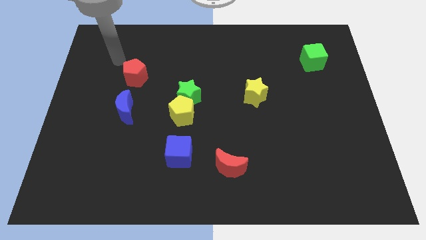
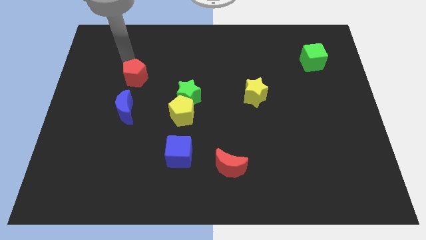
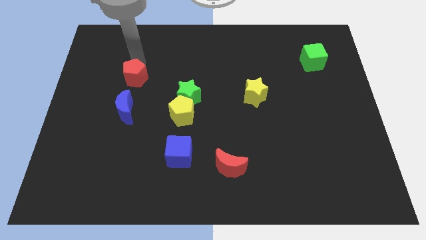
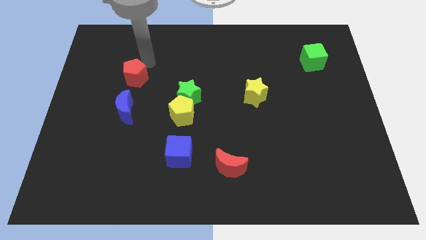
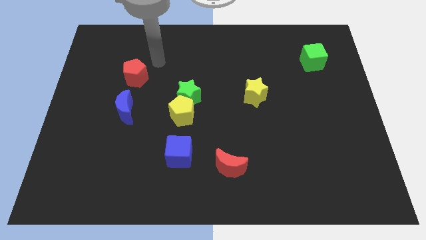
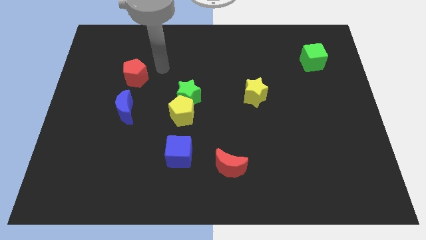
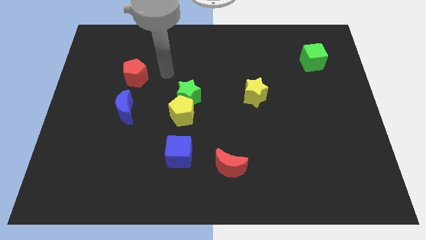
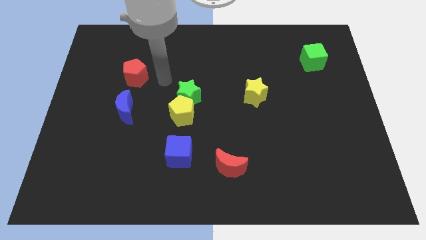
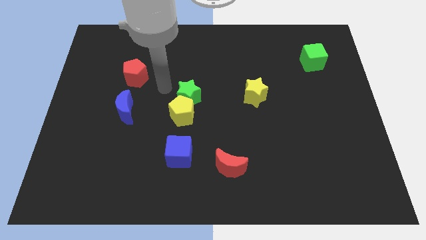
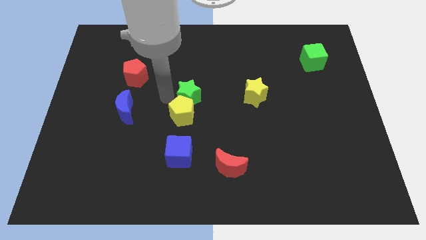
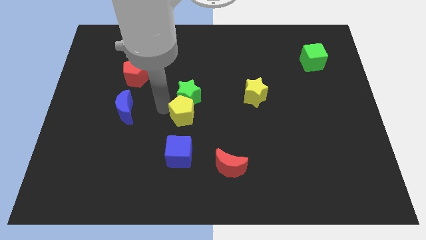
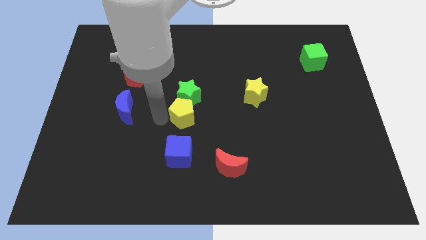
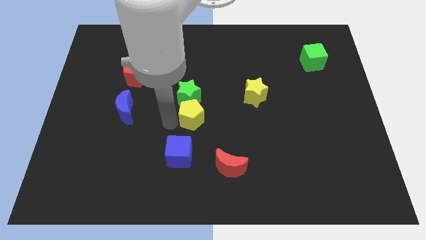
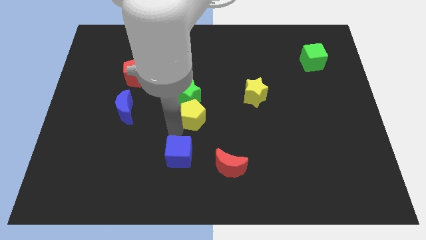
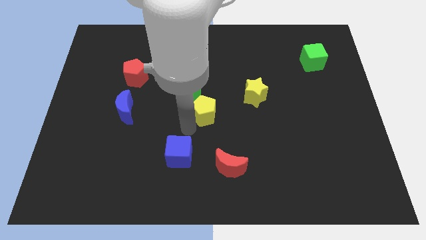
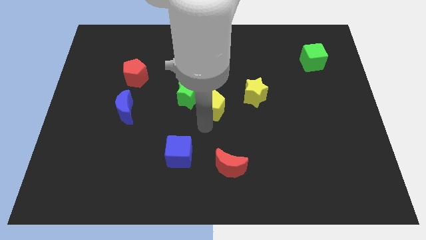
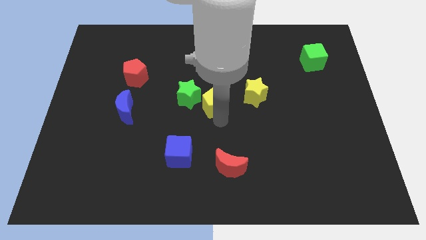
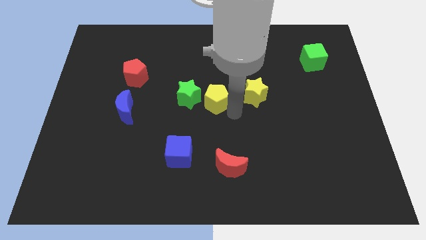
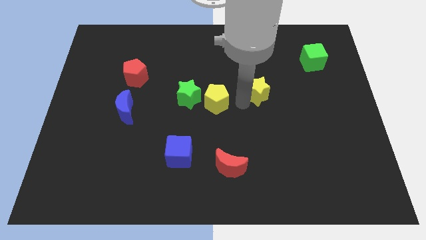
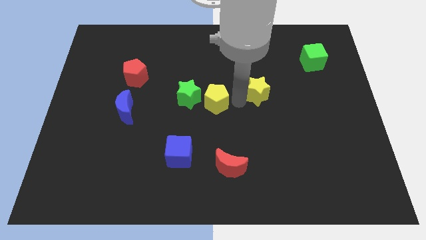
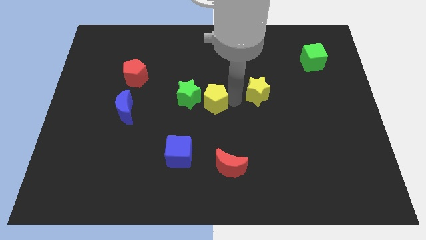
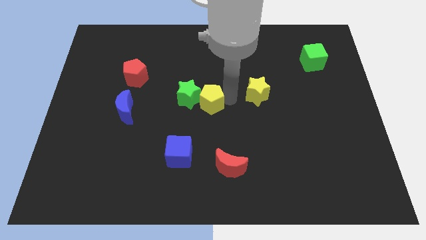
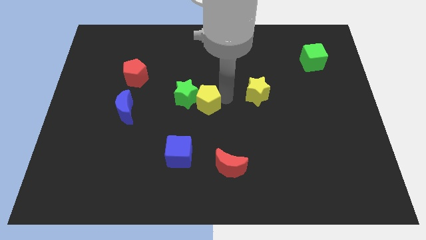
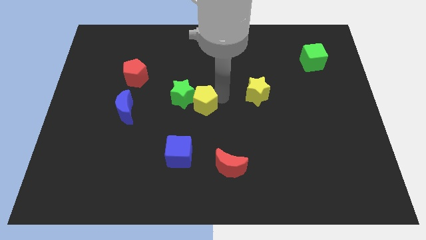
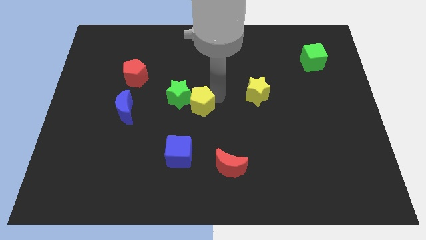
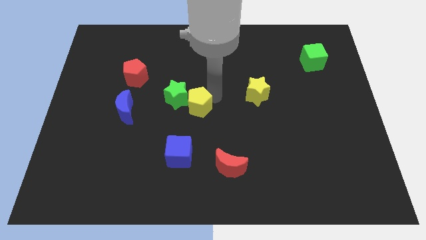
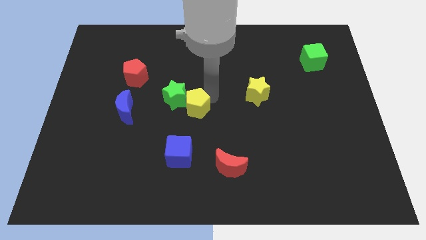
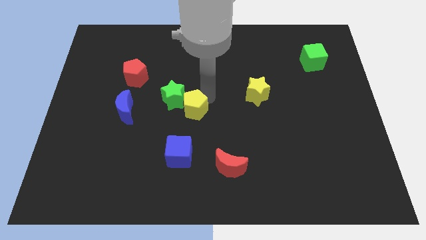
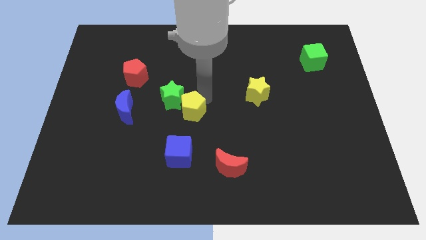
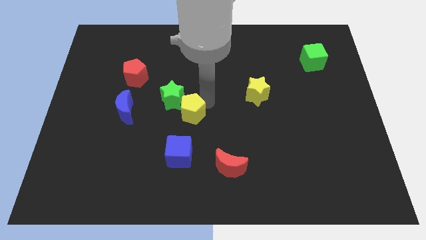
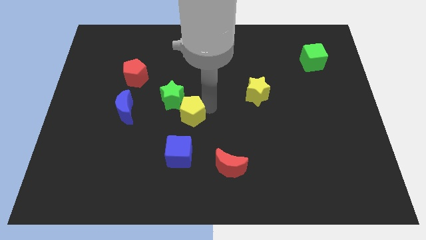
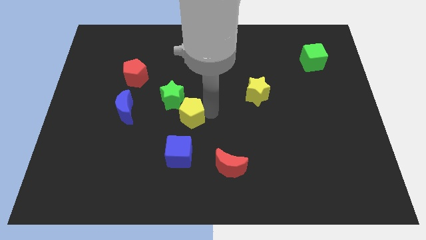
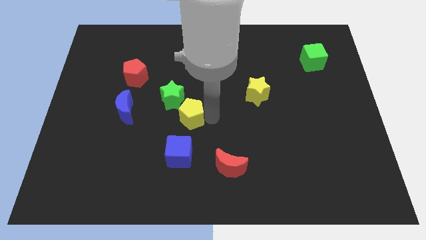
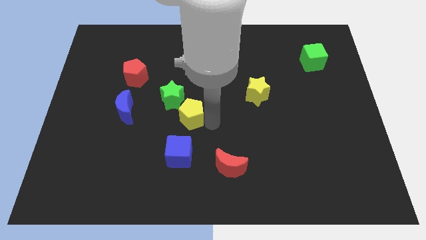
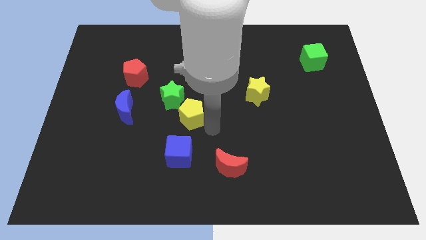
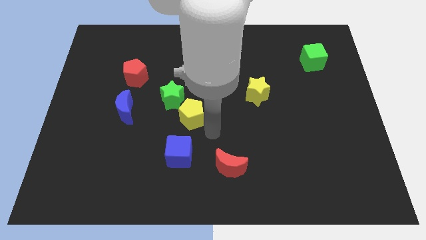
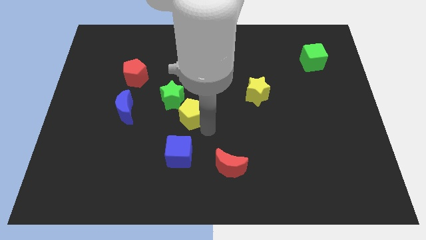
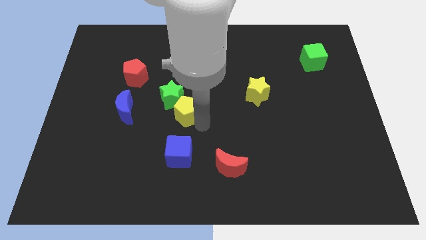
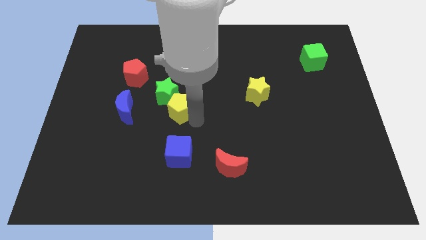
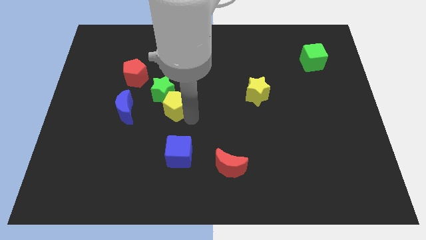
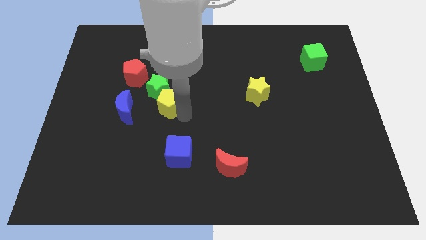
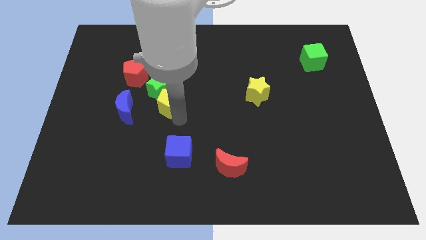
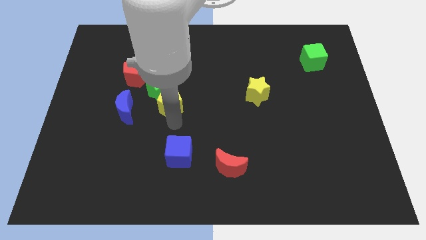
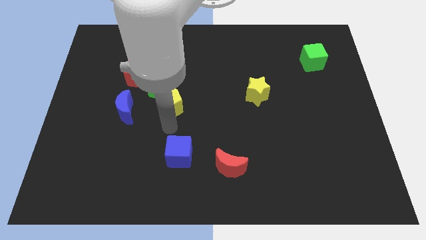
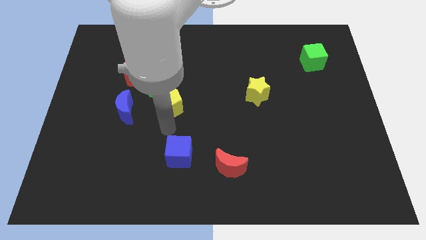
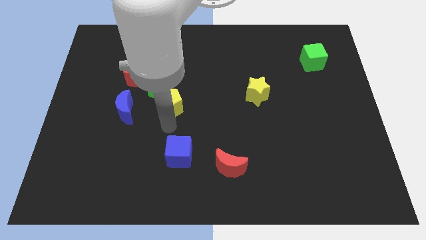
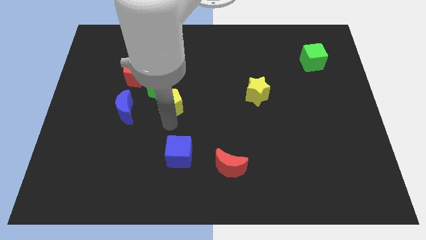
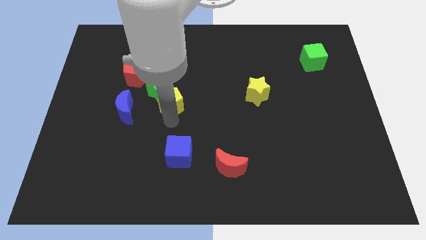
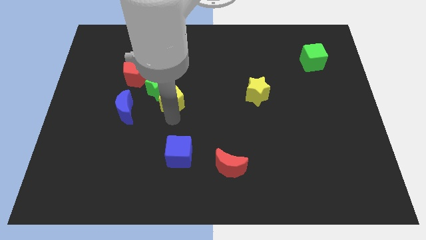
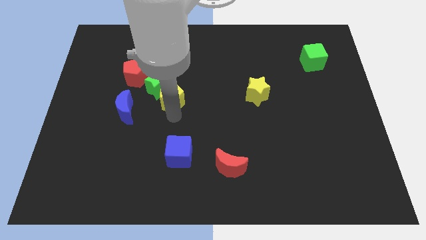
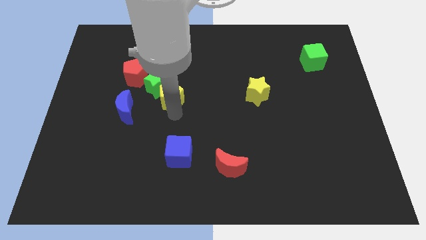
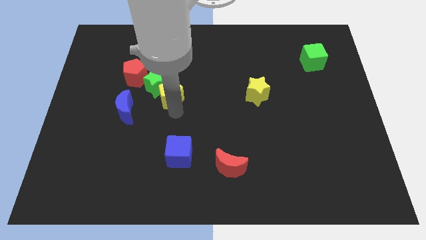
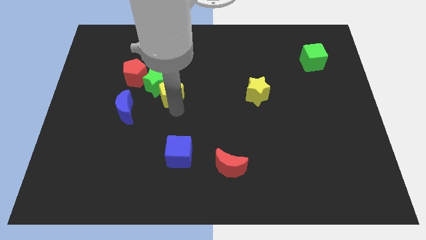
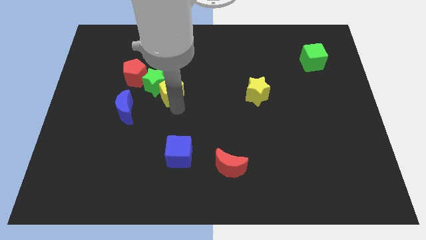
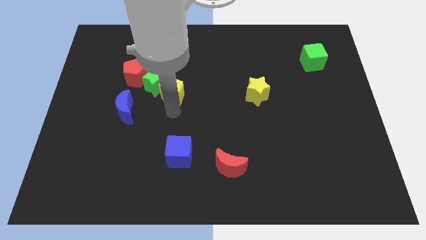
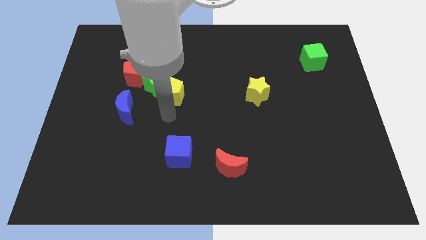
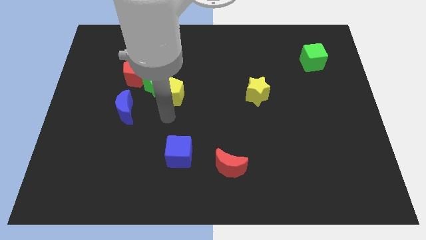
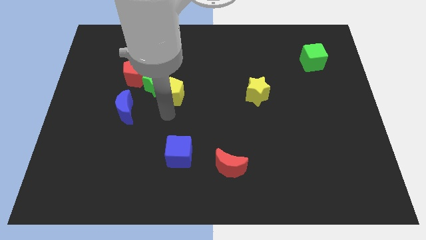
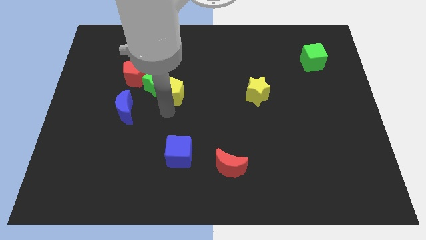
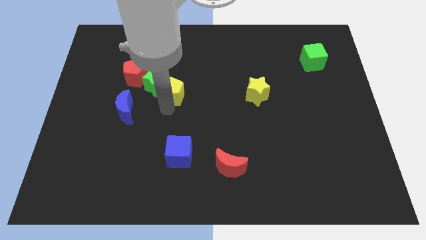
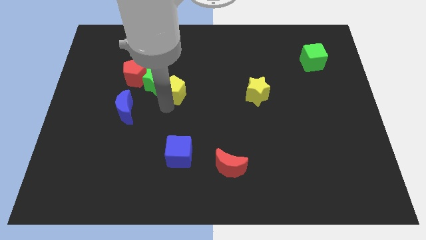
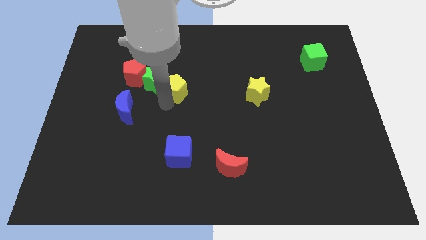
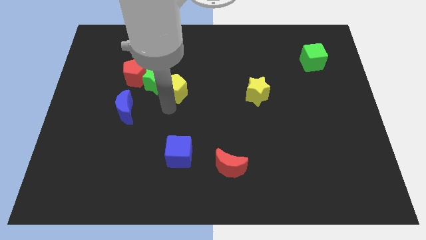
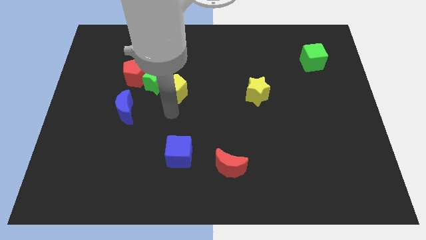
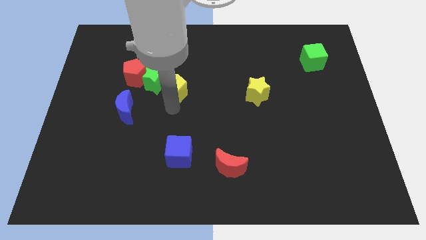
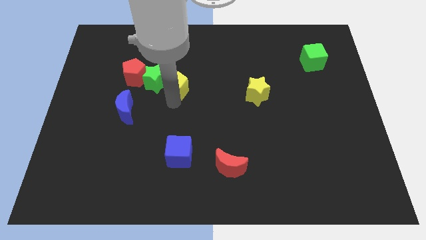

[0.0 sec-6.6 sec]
move the yellow pentagon somewhat up

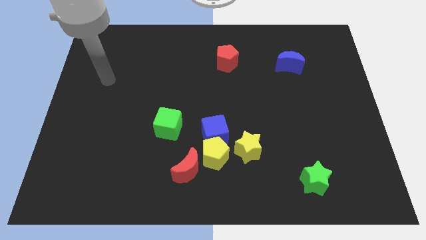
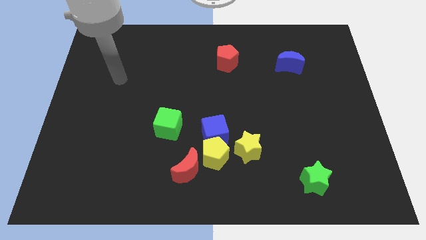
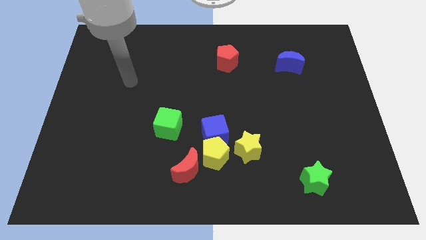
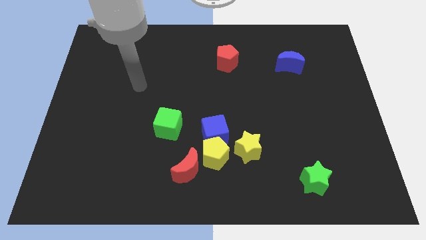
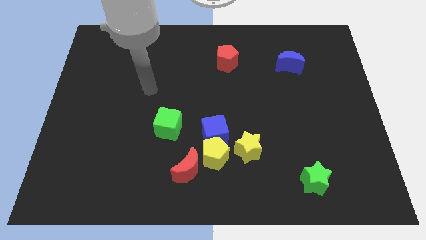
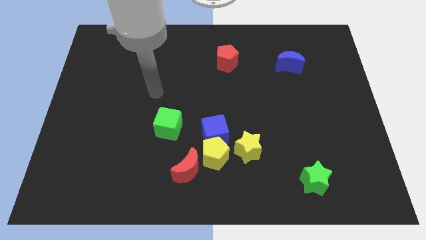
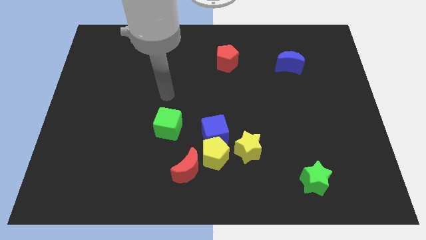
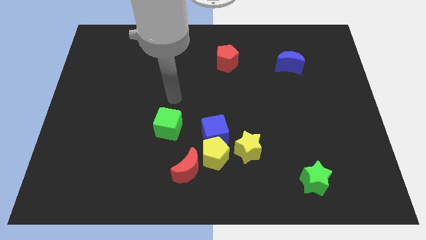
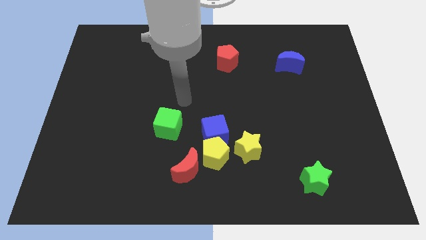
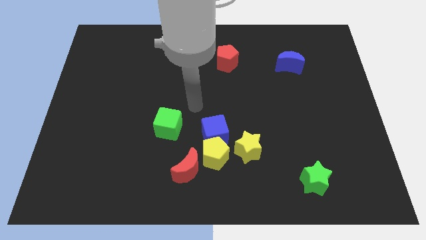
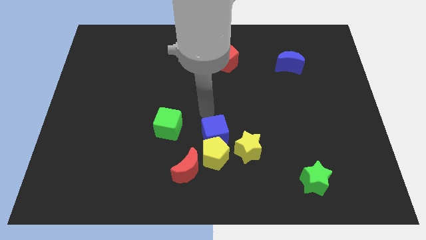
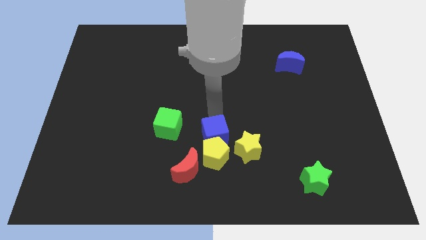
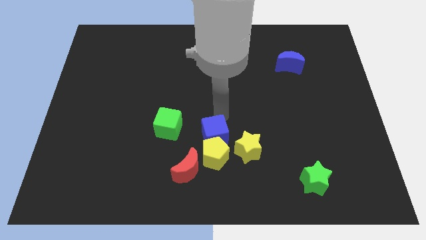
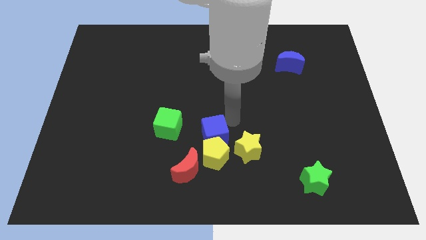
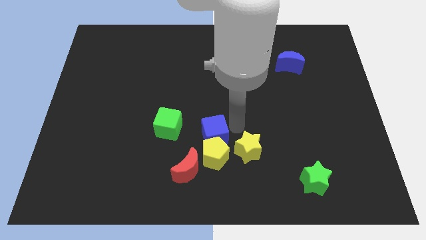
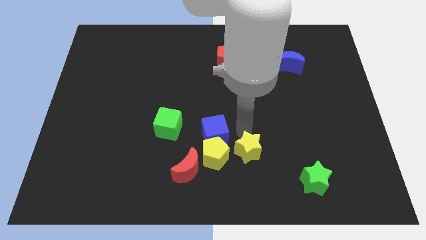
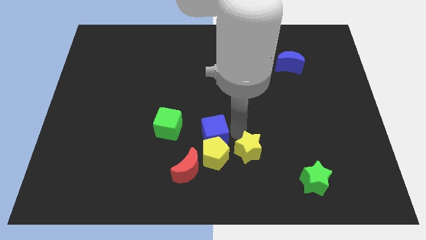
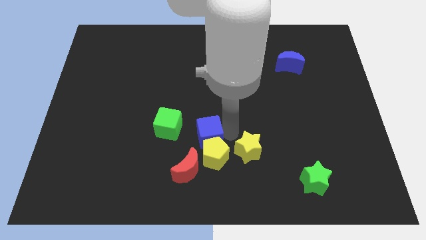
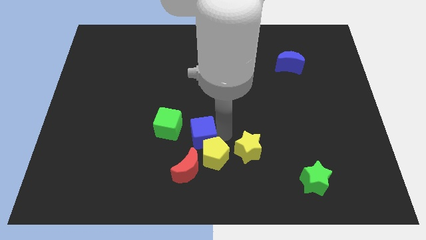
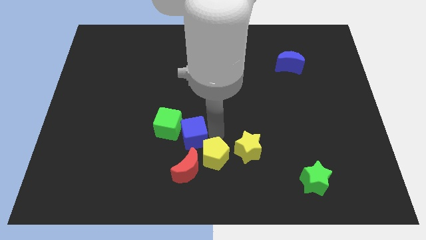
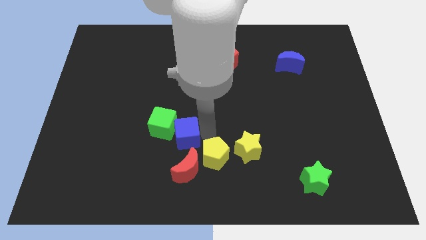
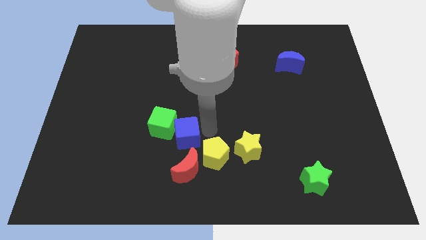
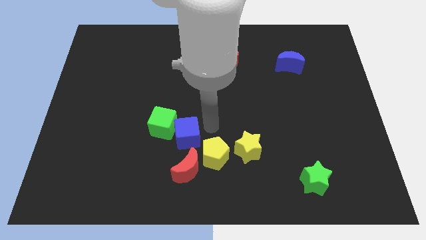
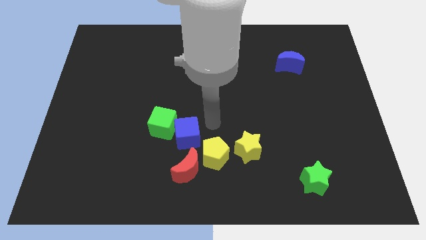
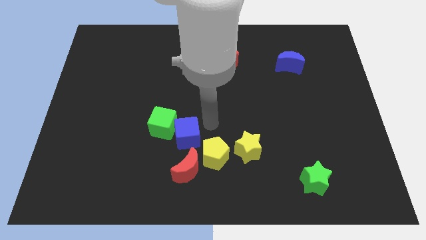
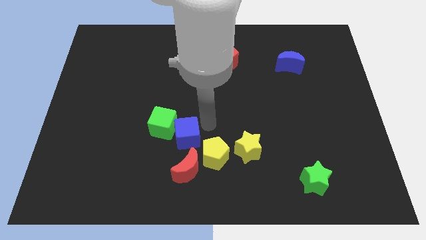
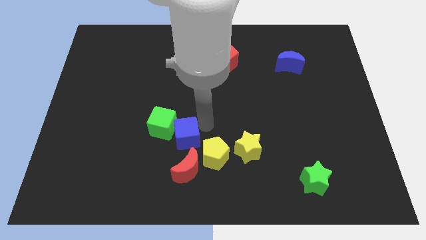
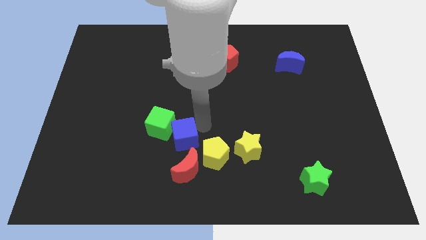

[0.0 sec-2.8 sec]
move the blue cube left a little bit
